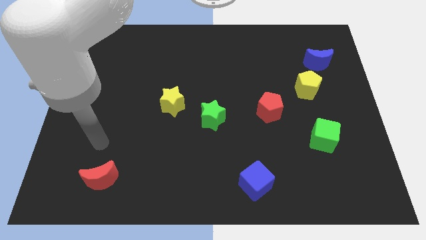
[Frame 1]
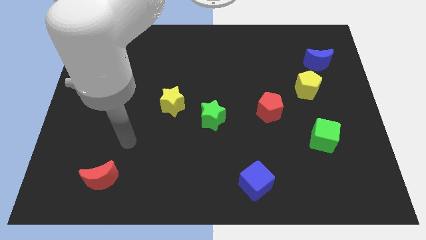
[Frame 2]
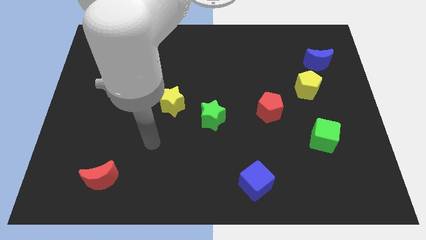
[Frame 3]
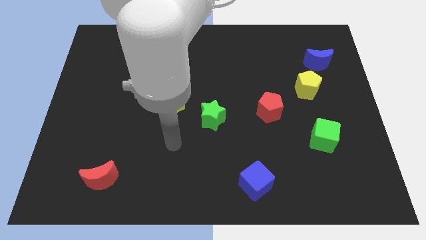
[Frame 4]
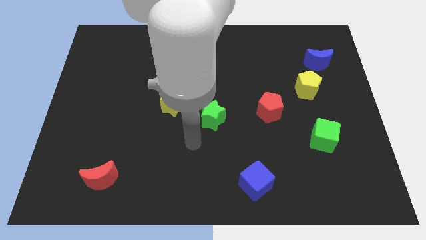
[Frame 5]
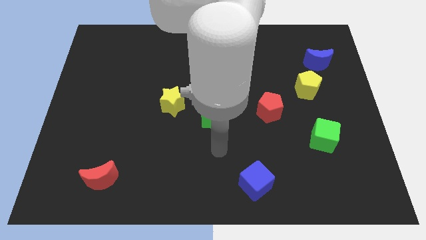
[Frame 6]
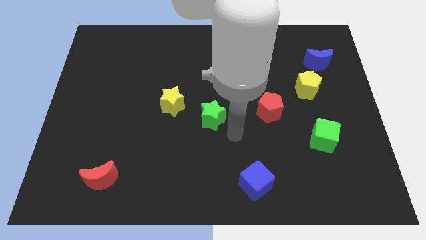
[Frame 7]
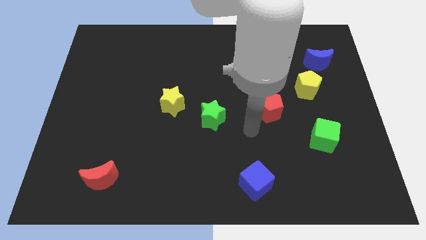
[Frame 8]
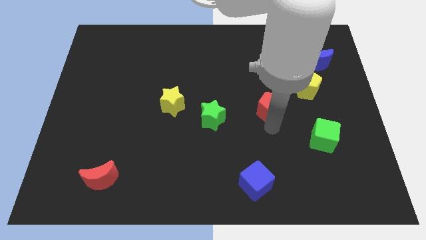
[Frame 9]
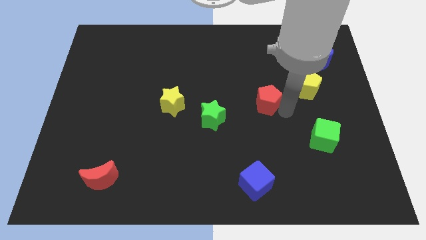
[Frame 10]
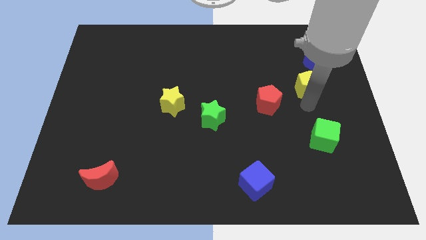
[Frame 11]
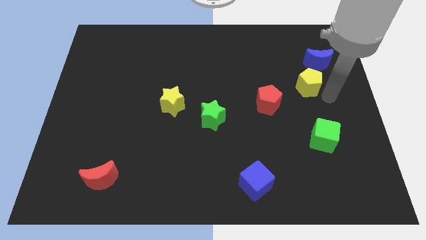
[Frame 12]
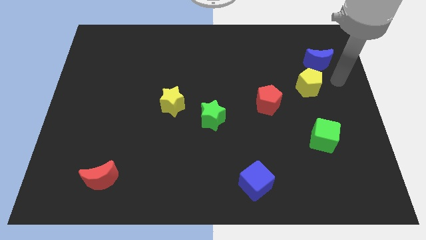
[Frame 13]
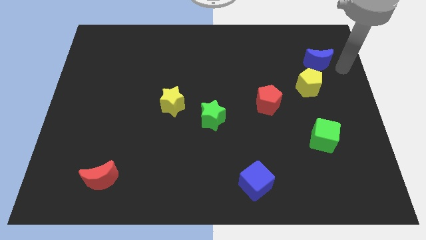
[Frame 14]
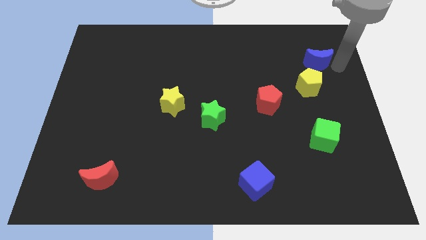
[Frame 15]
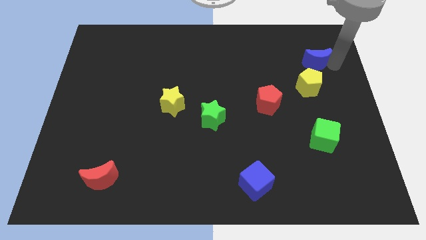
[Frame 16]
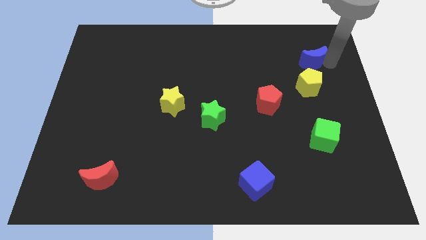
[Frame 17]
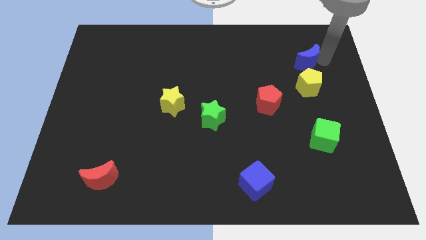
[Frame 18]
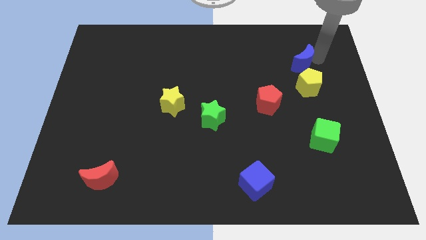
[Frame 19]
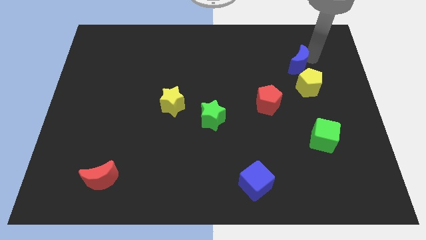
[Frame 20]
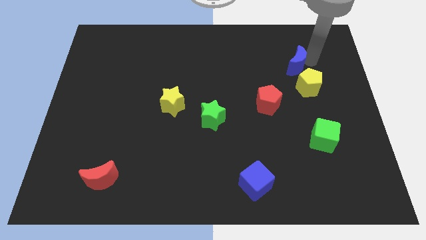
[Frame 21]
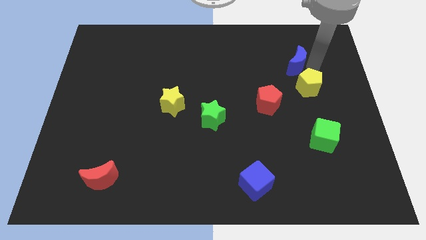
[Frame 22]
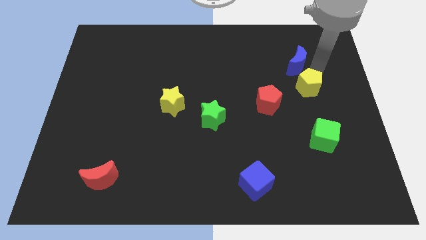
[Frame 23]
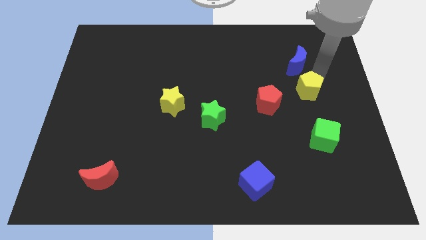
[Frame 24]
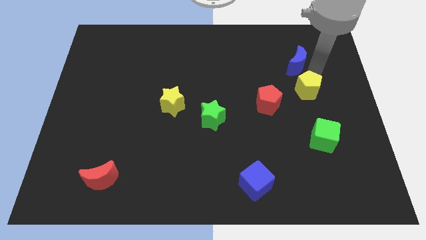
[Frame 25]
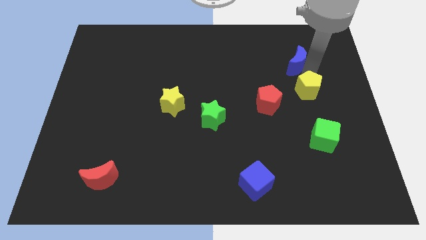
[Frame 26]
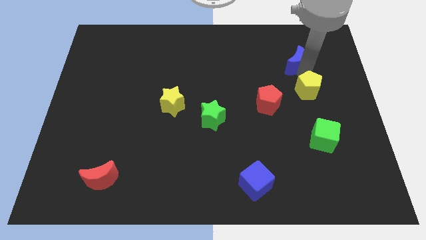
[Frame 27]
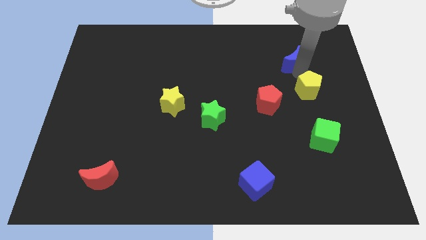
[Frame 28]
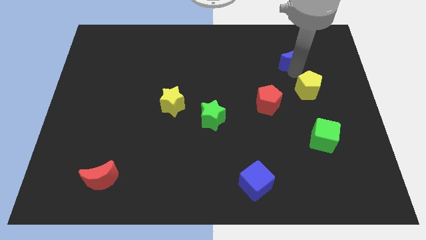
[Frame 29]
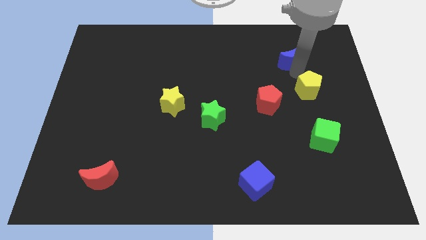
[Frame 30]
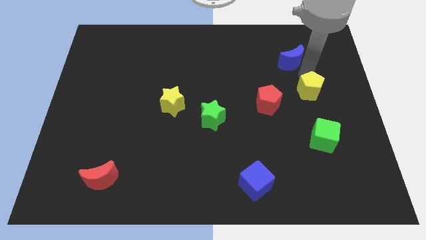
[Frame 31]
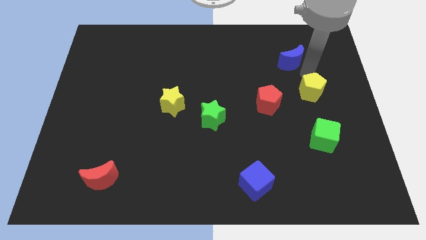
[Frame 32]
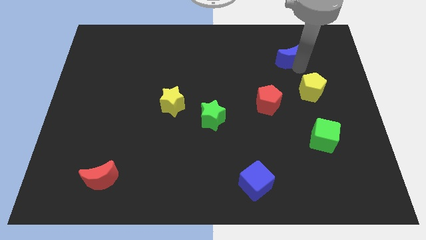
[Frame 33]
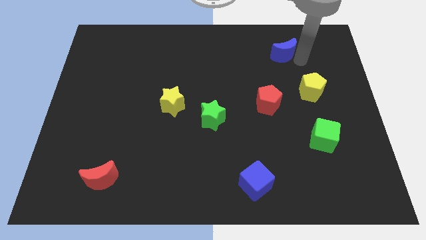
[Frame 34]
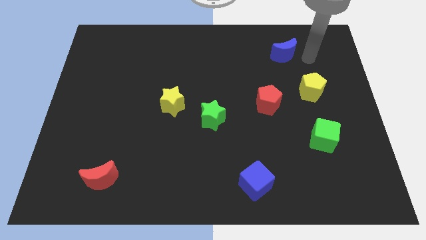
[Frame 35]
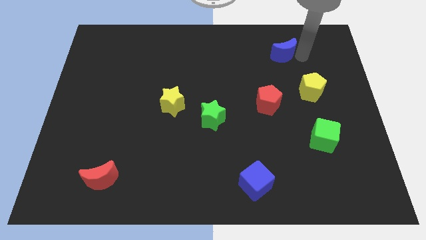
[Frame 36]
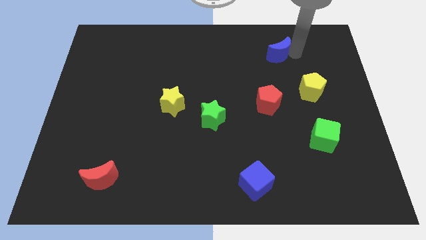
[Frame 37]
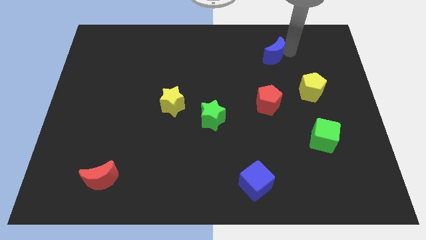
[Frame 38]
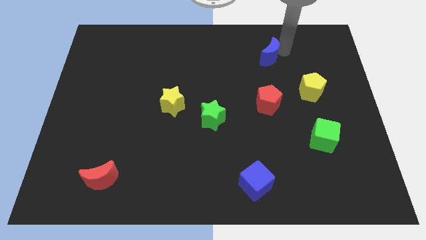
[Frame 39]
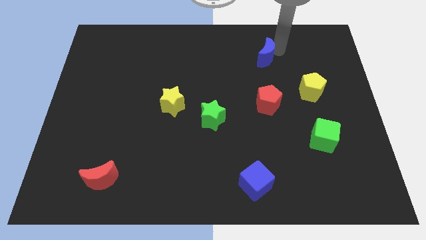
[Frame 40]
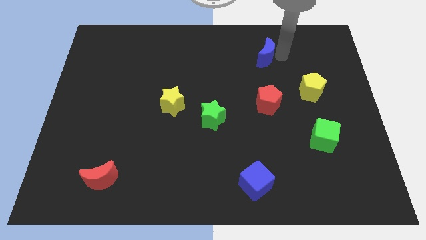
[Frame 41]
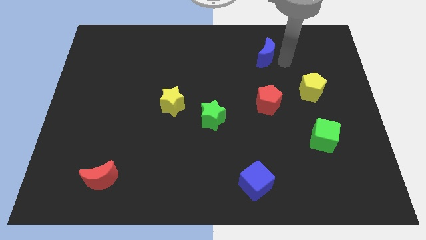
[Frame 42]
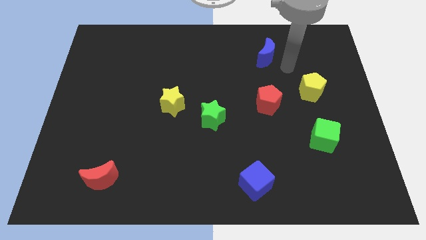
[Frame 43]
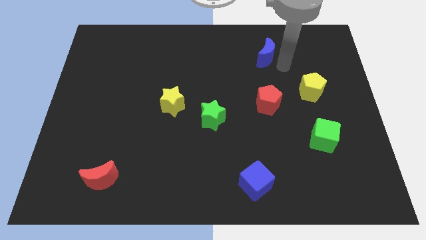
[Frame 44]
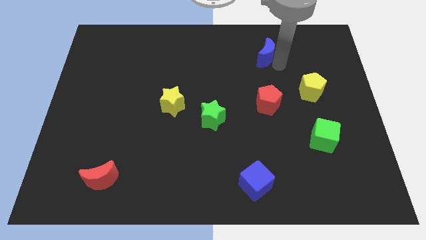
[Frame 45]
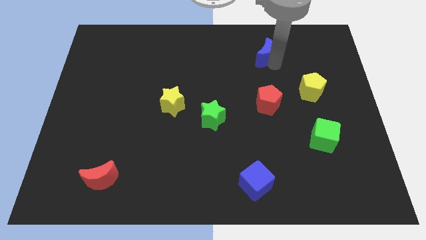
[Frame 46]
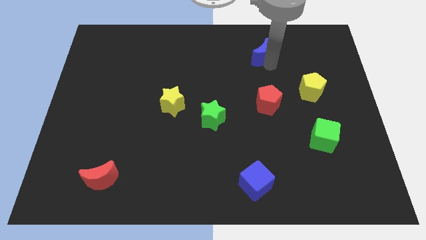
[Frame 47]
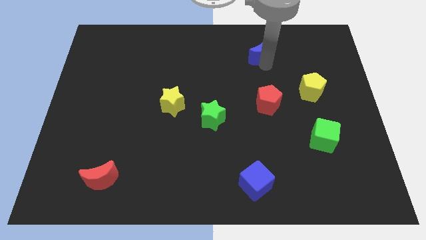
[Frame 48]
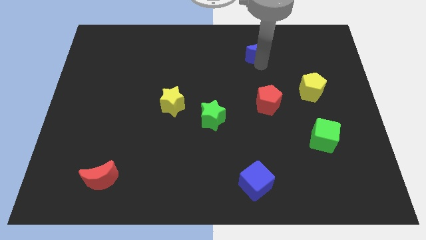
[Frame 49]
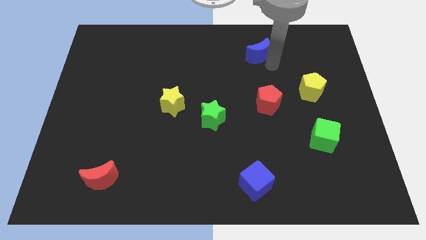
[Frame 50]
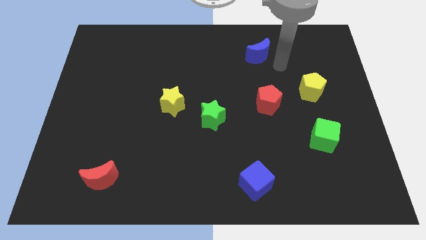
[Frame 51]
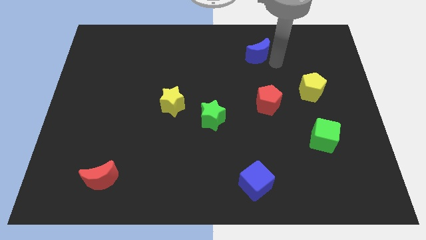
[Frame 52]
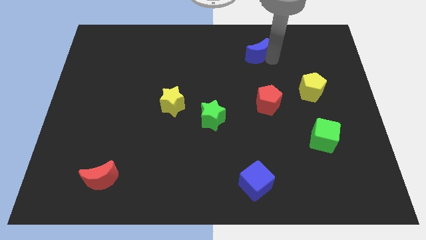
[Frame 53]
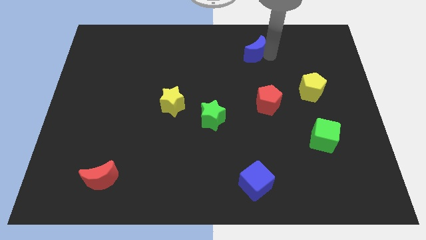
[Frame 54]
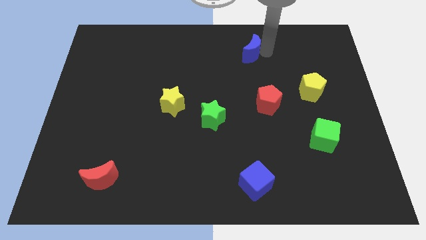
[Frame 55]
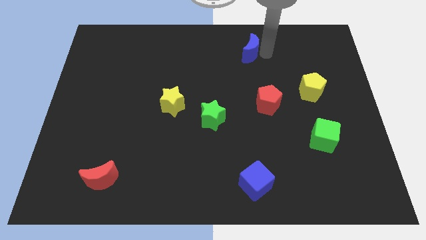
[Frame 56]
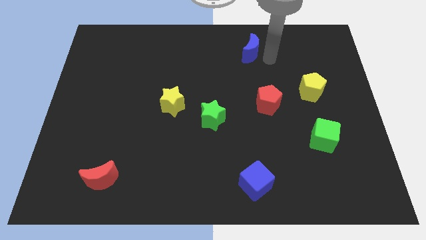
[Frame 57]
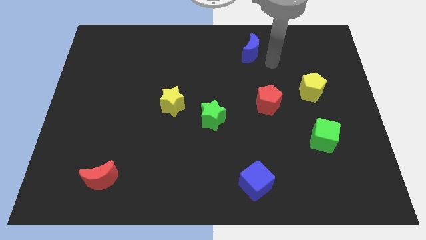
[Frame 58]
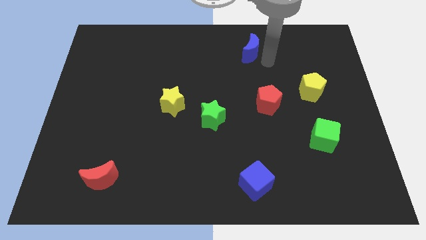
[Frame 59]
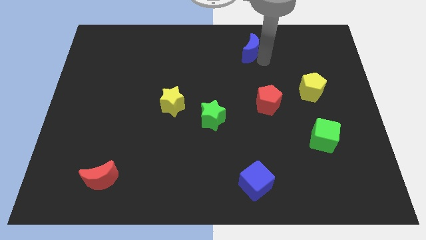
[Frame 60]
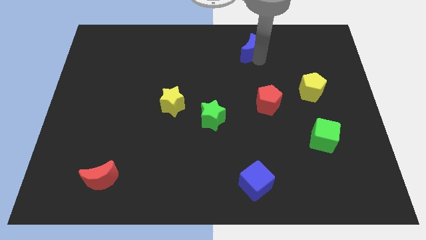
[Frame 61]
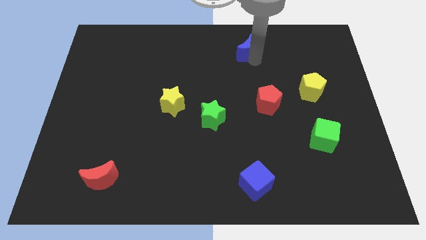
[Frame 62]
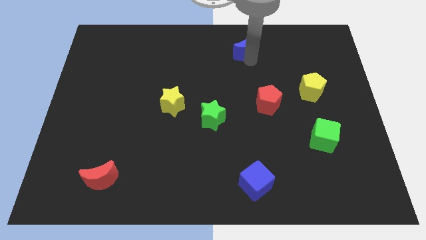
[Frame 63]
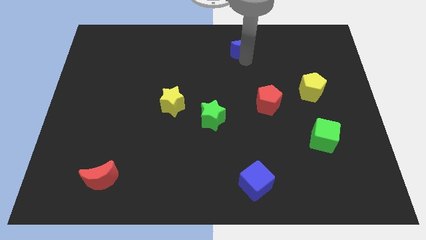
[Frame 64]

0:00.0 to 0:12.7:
slide the blue moon to the towards your base
